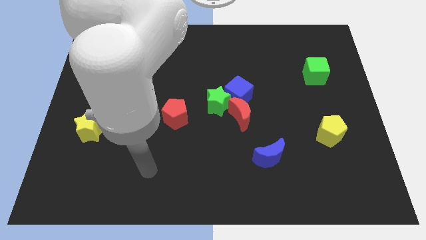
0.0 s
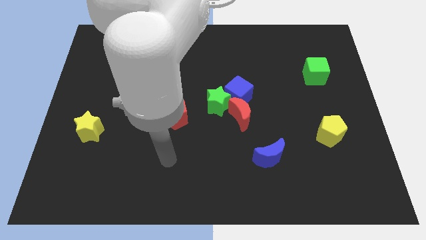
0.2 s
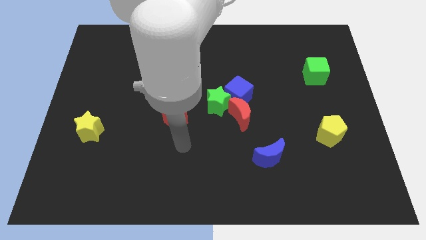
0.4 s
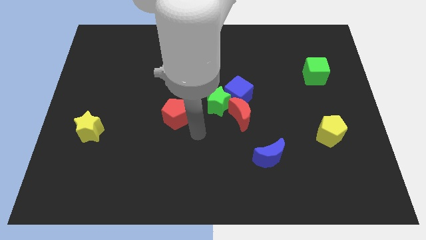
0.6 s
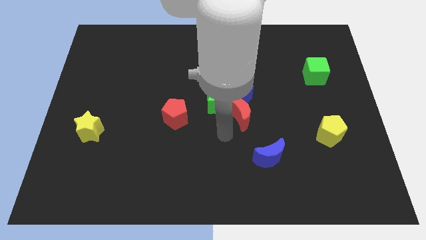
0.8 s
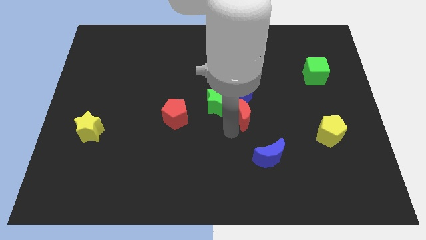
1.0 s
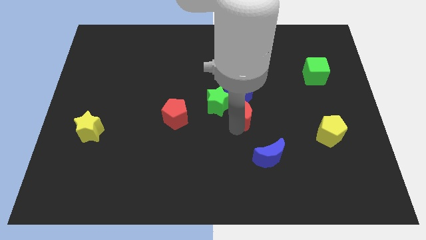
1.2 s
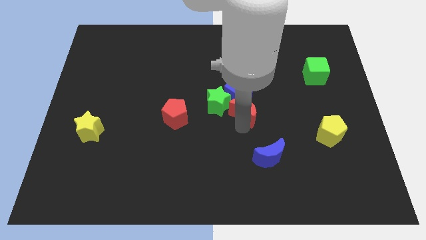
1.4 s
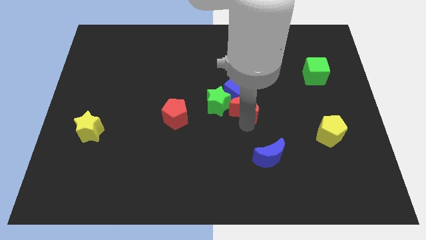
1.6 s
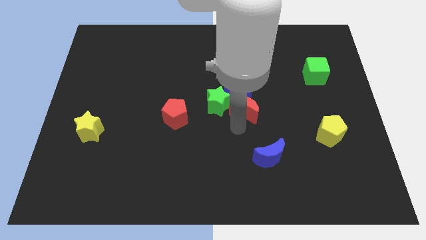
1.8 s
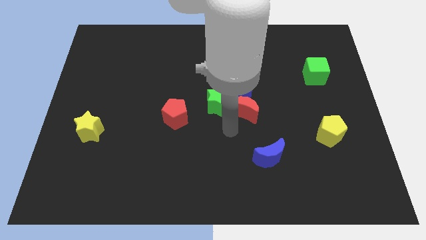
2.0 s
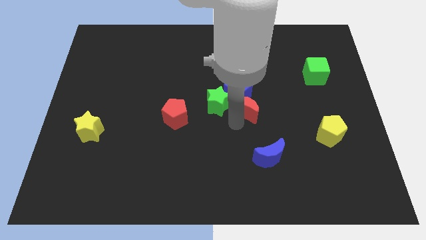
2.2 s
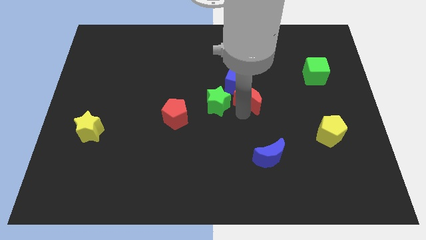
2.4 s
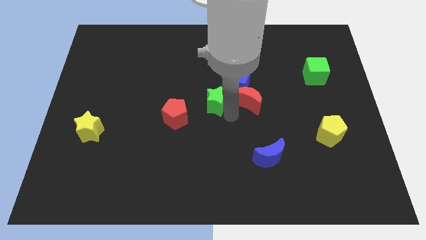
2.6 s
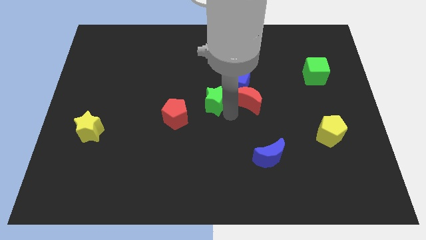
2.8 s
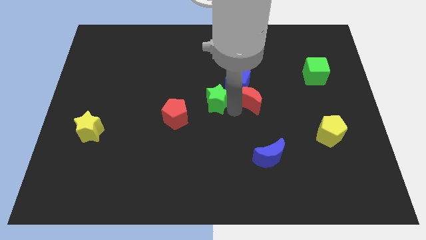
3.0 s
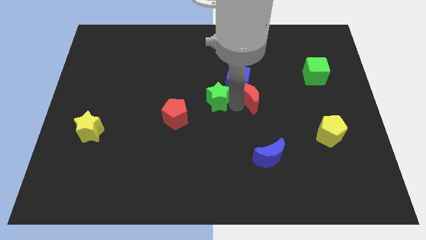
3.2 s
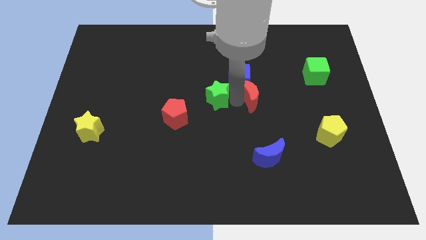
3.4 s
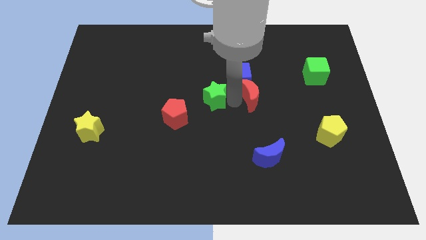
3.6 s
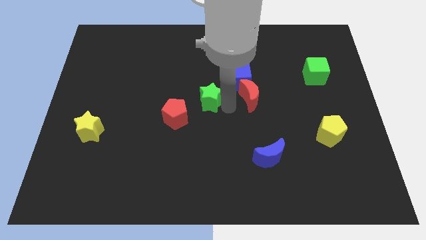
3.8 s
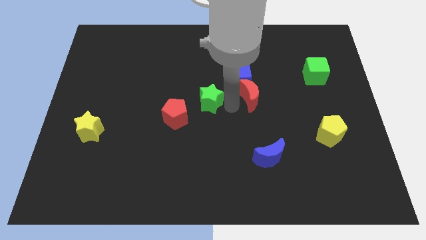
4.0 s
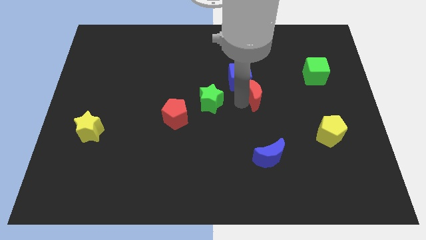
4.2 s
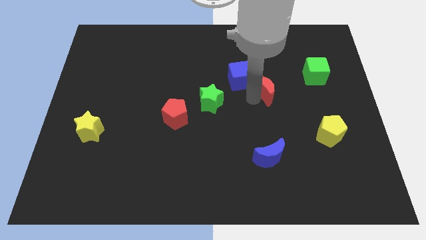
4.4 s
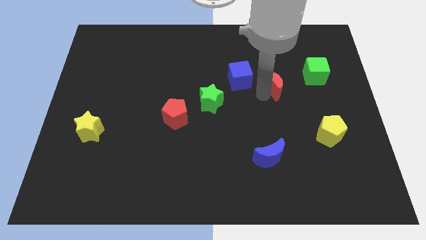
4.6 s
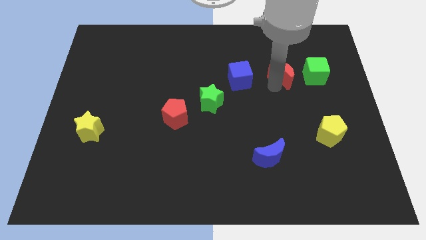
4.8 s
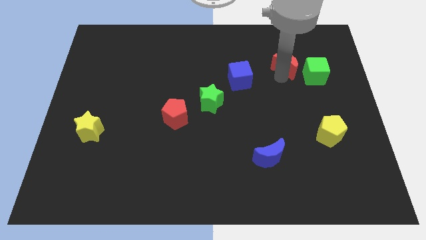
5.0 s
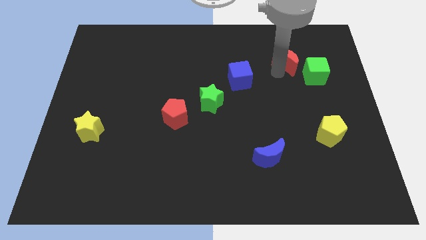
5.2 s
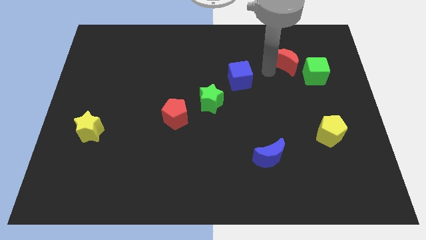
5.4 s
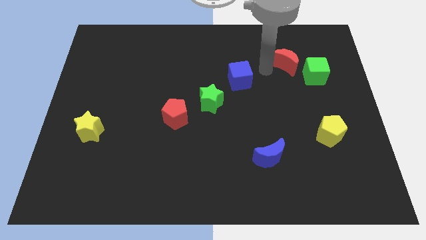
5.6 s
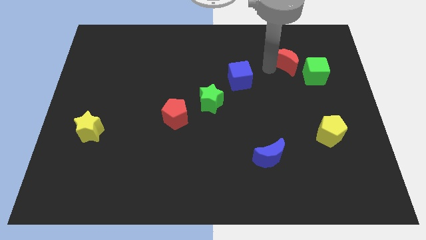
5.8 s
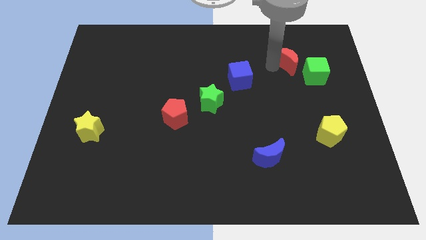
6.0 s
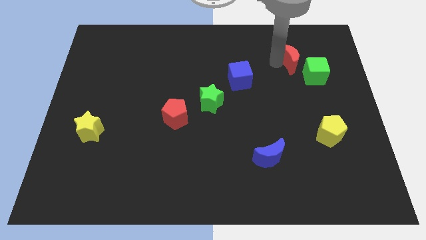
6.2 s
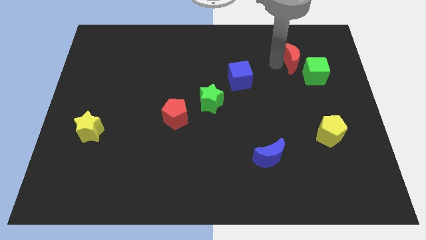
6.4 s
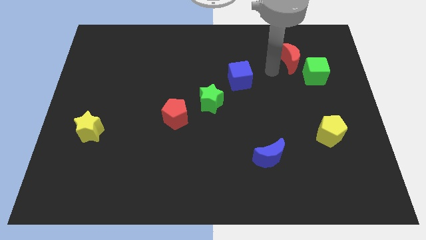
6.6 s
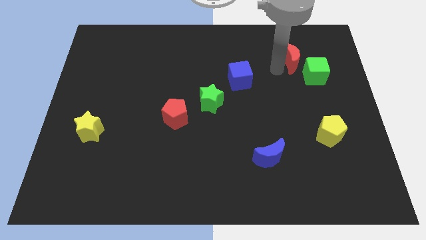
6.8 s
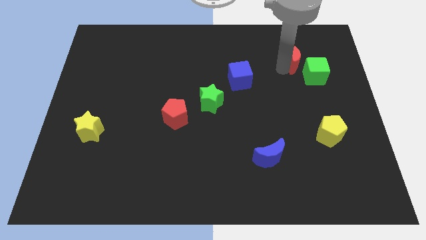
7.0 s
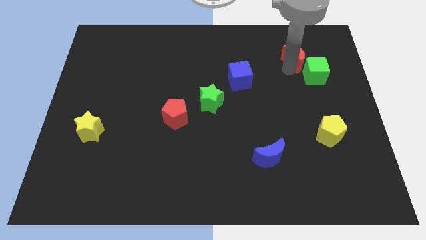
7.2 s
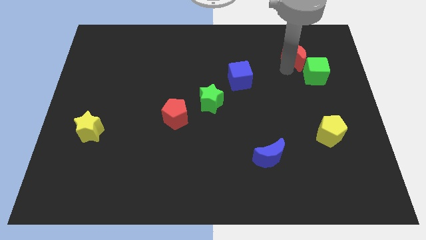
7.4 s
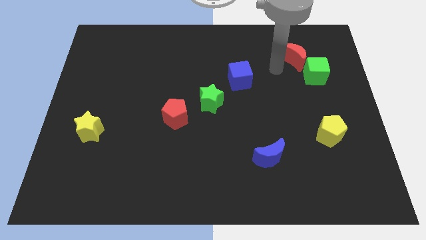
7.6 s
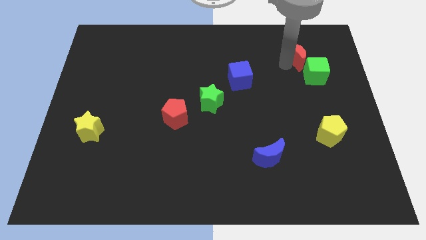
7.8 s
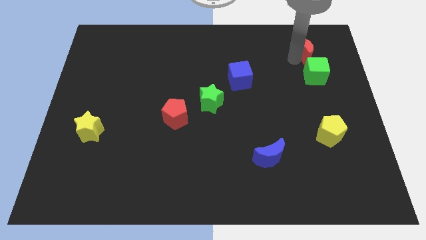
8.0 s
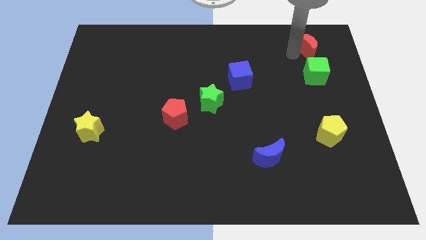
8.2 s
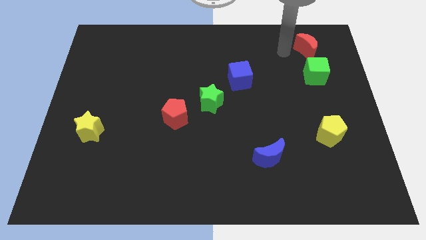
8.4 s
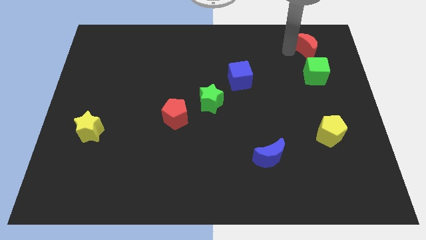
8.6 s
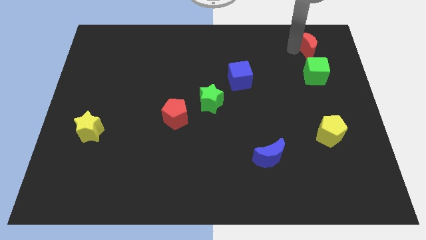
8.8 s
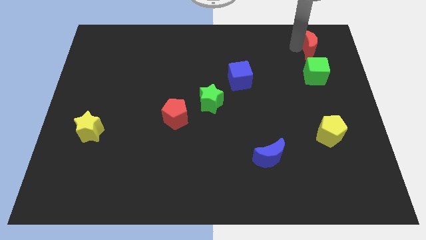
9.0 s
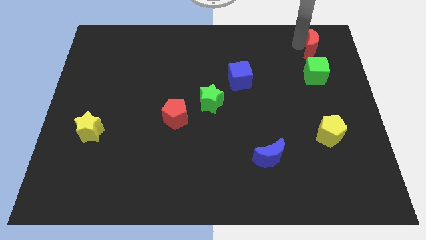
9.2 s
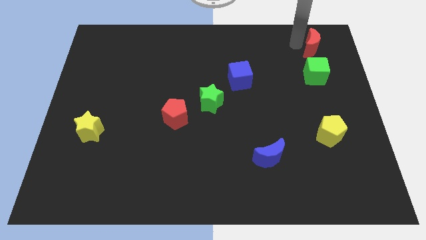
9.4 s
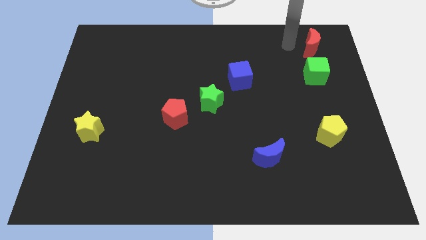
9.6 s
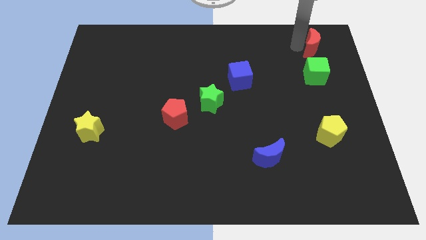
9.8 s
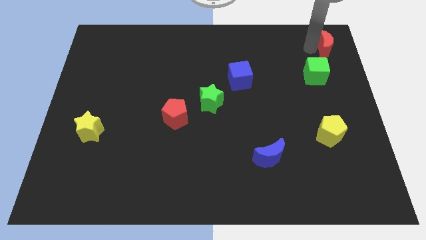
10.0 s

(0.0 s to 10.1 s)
push the red moon to the top right

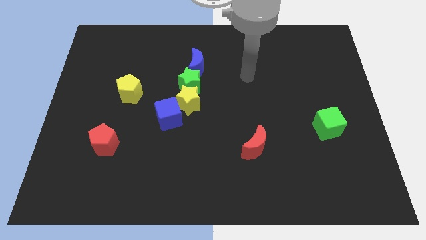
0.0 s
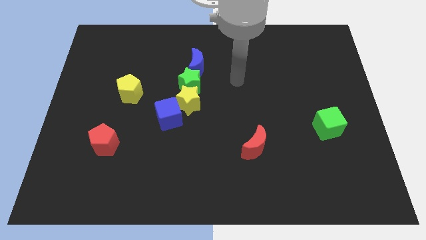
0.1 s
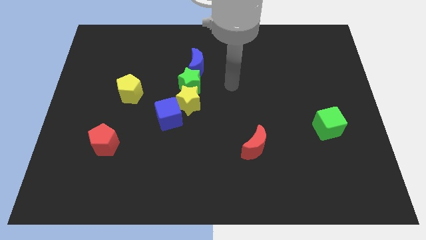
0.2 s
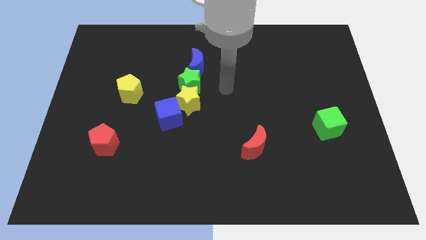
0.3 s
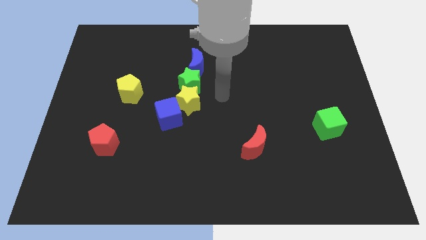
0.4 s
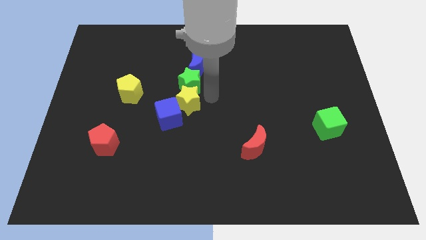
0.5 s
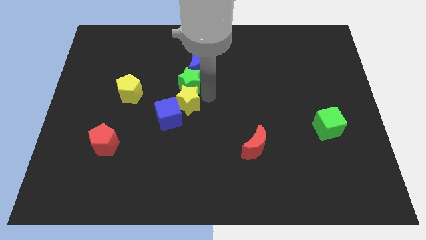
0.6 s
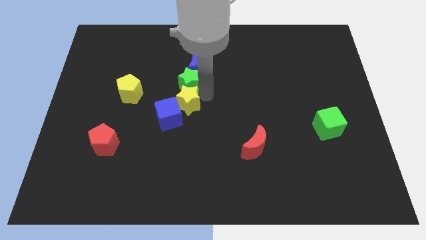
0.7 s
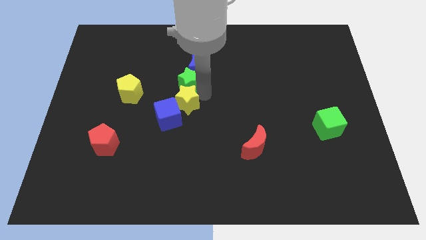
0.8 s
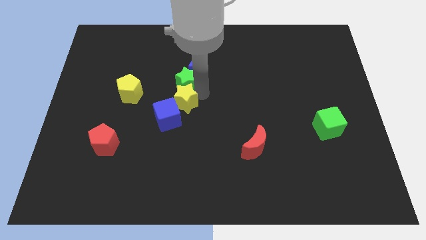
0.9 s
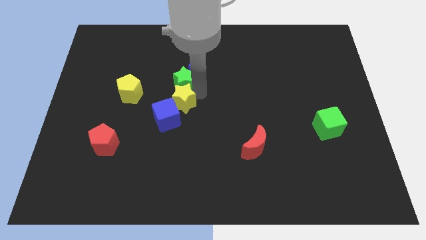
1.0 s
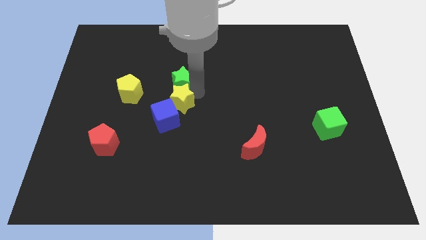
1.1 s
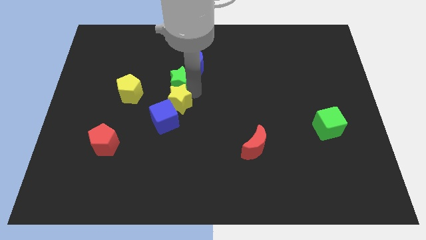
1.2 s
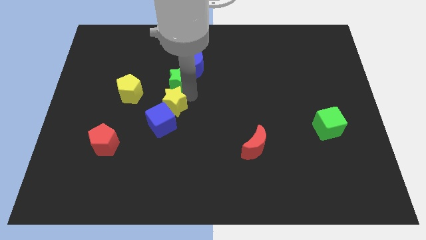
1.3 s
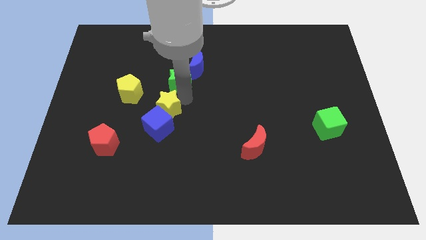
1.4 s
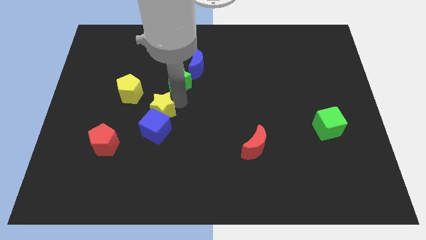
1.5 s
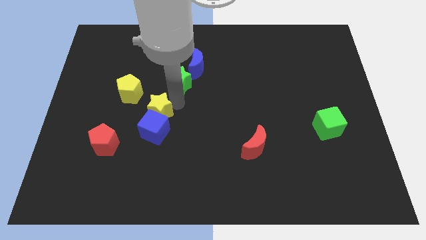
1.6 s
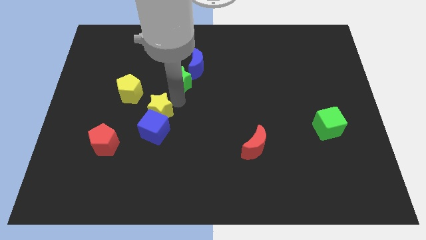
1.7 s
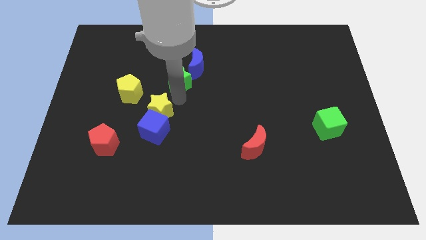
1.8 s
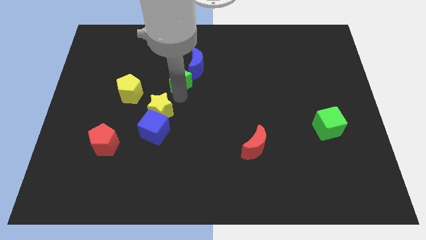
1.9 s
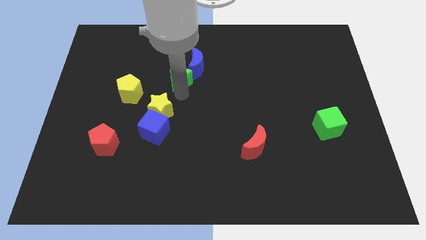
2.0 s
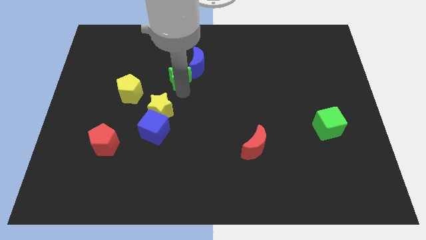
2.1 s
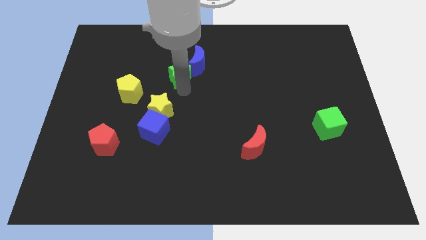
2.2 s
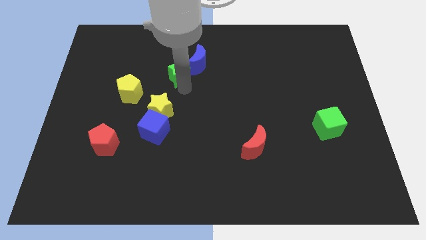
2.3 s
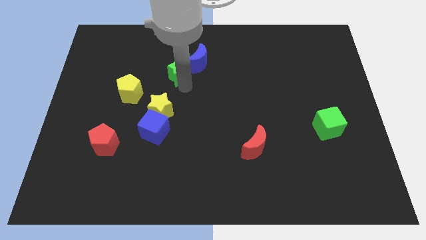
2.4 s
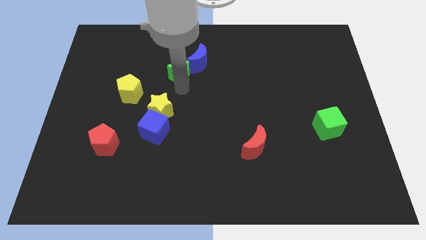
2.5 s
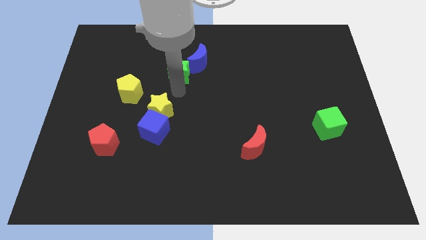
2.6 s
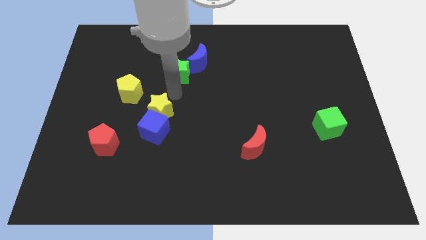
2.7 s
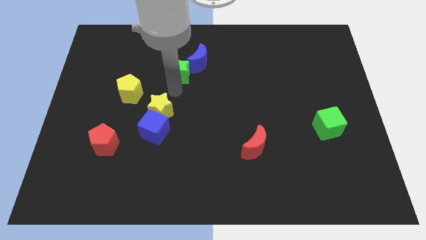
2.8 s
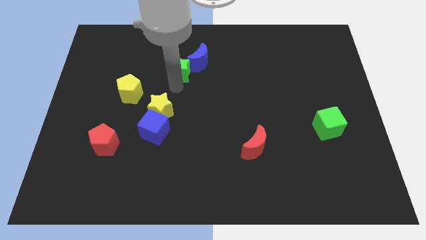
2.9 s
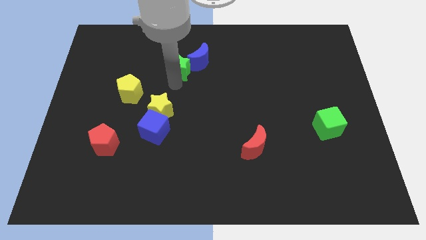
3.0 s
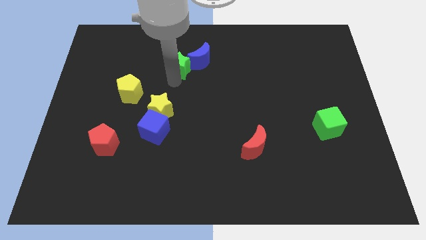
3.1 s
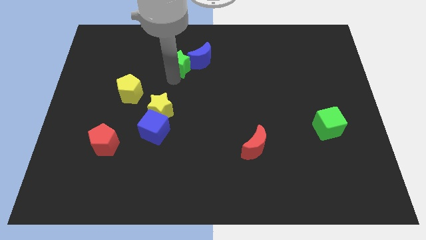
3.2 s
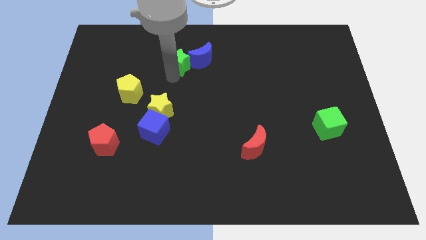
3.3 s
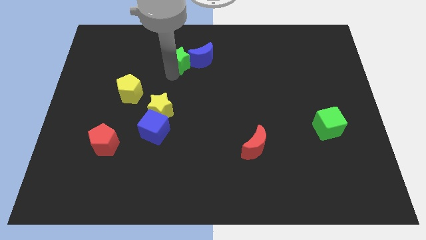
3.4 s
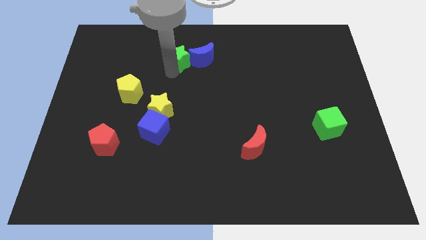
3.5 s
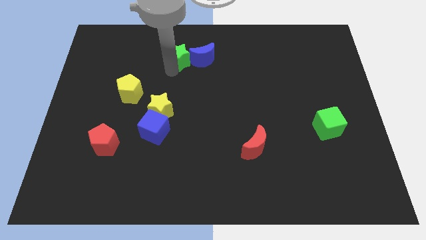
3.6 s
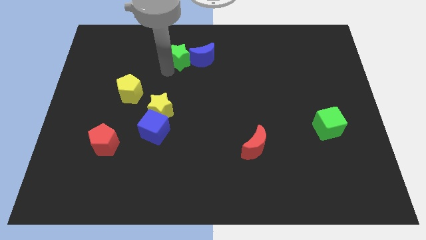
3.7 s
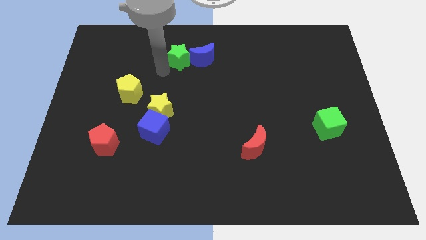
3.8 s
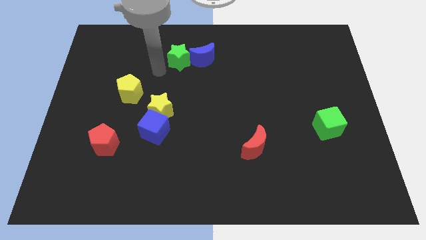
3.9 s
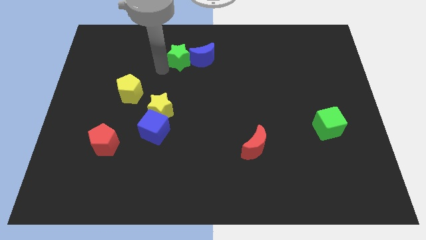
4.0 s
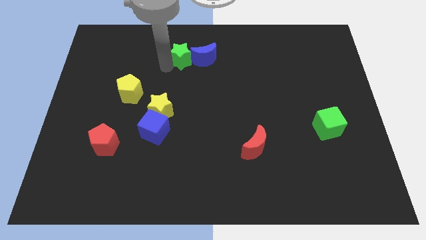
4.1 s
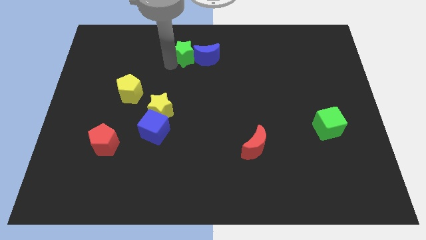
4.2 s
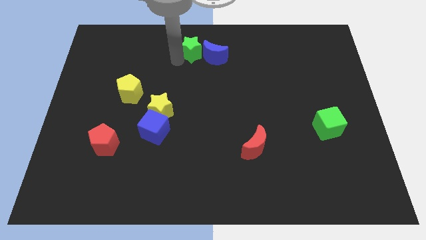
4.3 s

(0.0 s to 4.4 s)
slide the green star to the top
